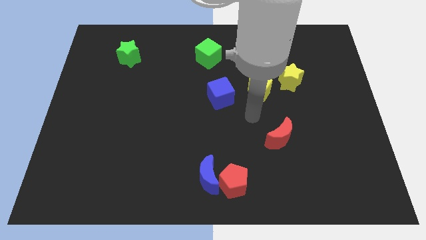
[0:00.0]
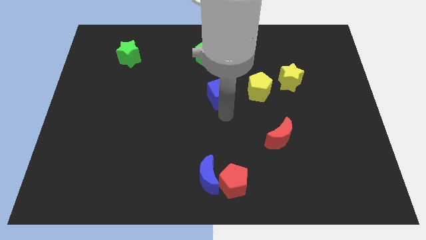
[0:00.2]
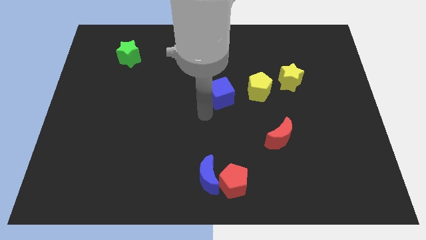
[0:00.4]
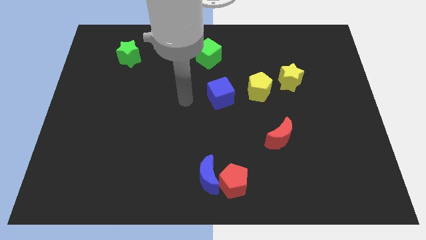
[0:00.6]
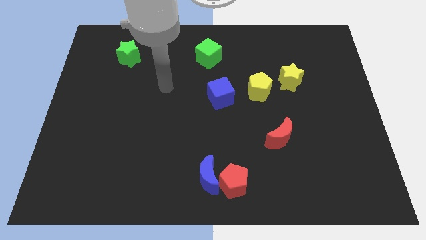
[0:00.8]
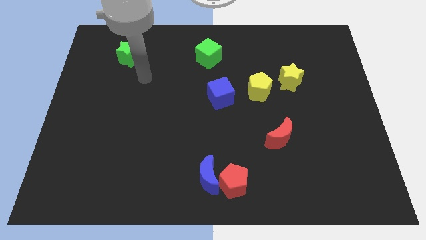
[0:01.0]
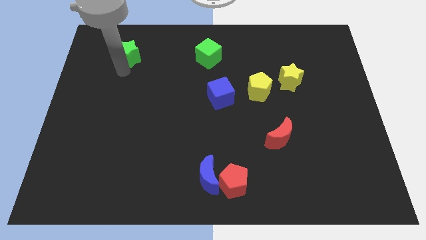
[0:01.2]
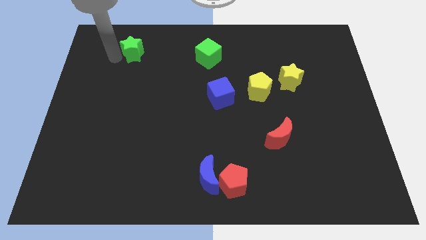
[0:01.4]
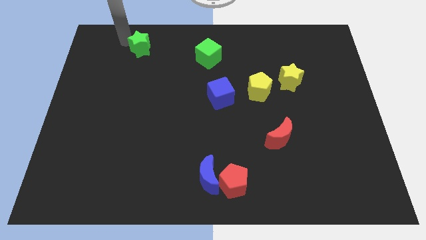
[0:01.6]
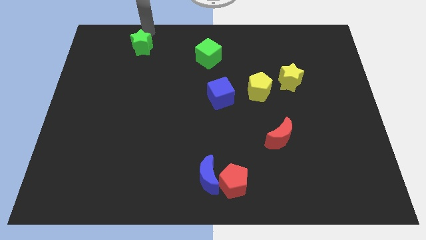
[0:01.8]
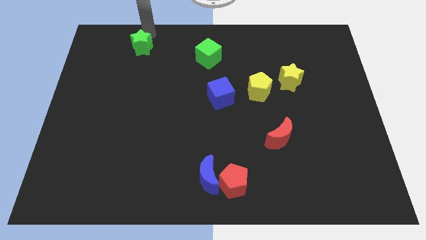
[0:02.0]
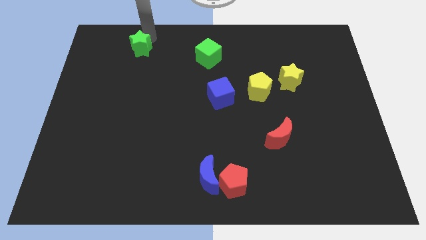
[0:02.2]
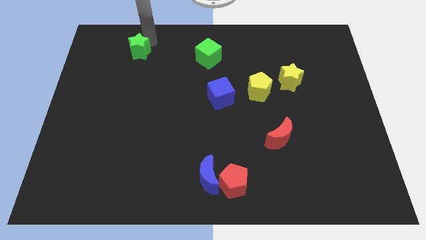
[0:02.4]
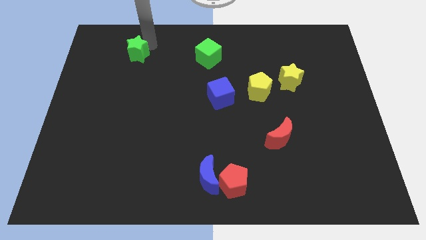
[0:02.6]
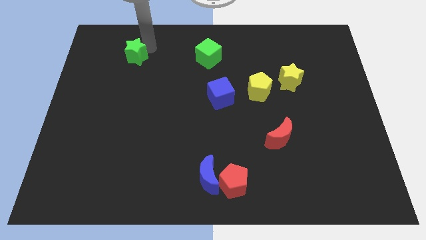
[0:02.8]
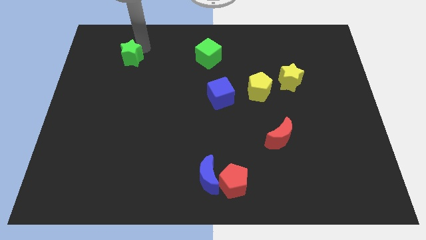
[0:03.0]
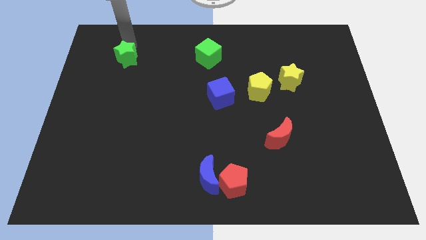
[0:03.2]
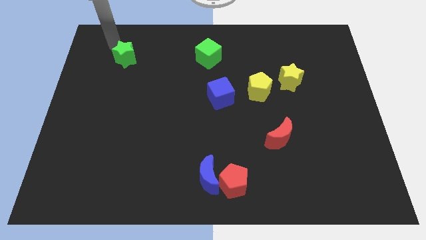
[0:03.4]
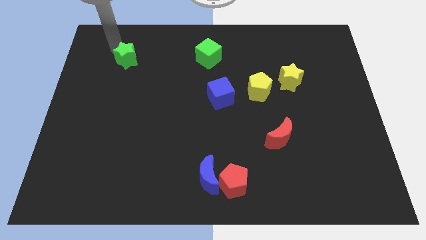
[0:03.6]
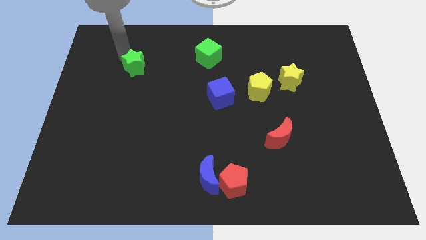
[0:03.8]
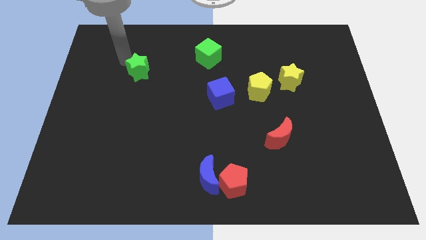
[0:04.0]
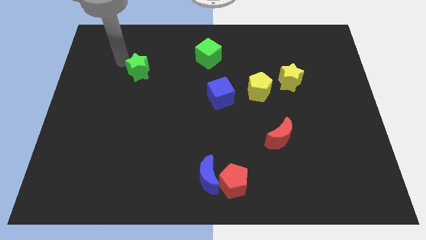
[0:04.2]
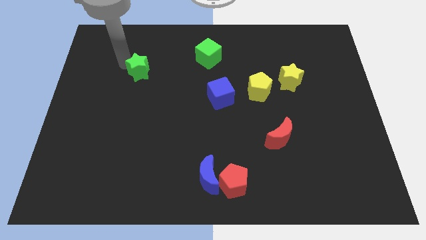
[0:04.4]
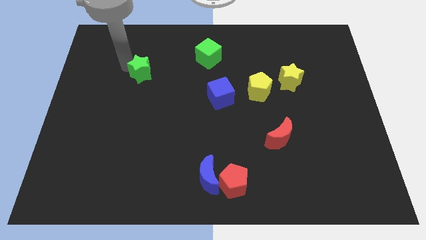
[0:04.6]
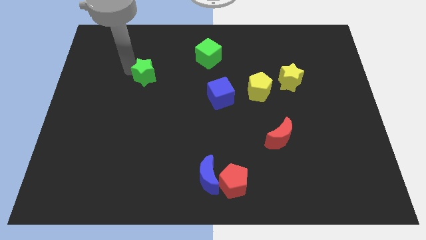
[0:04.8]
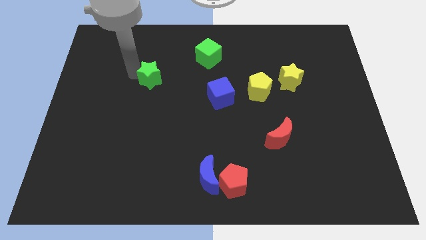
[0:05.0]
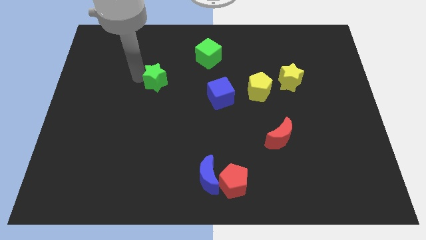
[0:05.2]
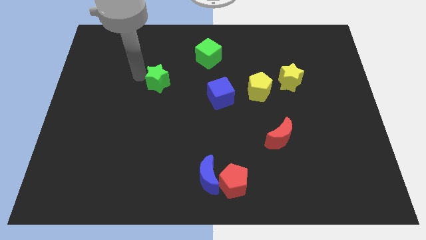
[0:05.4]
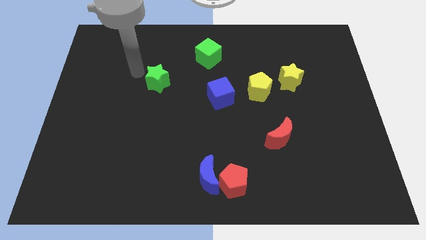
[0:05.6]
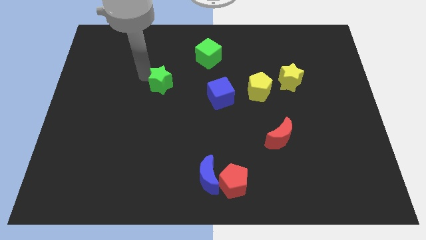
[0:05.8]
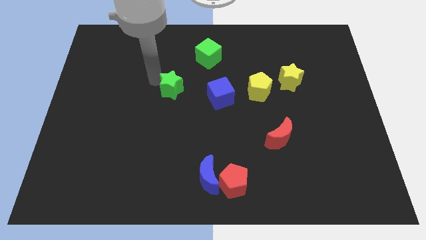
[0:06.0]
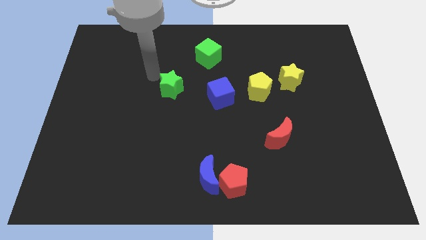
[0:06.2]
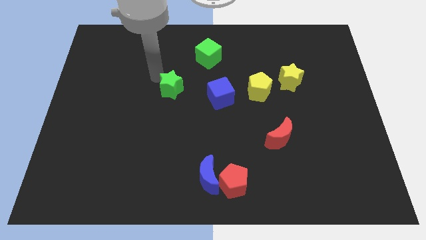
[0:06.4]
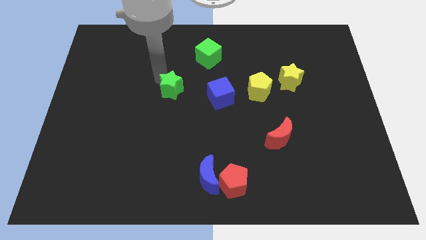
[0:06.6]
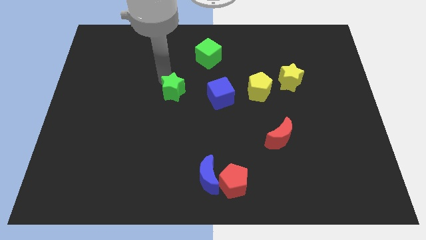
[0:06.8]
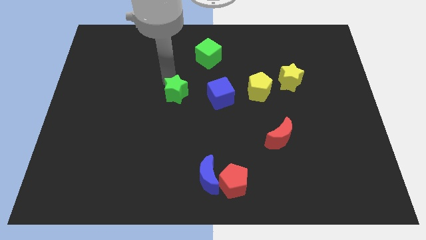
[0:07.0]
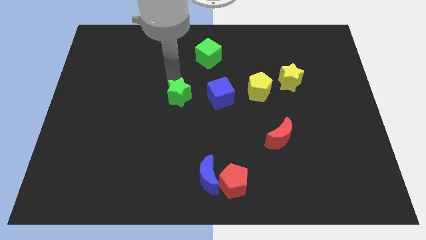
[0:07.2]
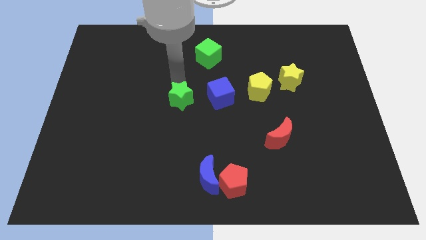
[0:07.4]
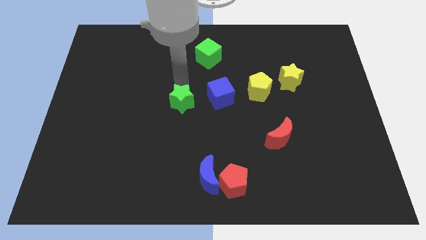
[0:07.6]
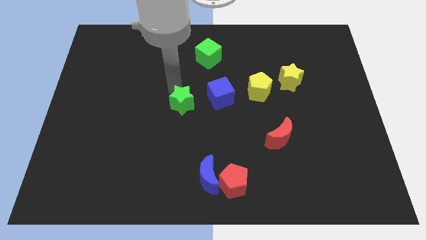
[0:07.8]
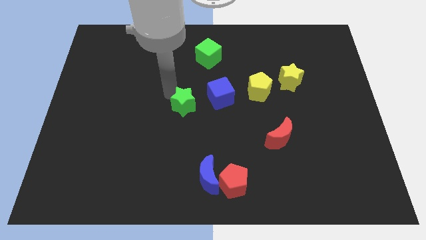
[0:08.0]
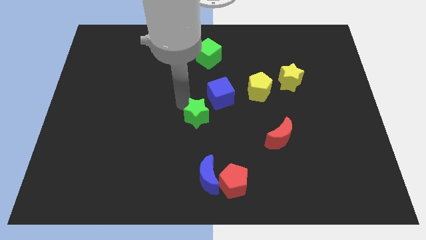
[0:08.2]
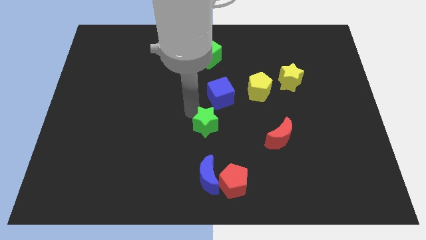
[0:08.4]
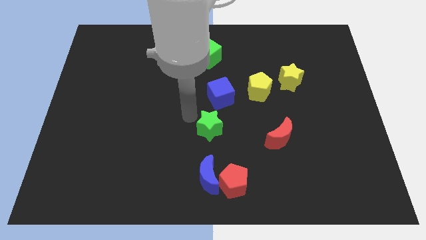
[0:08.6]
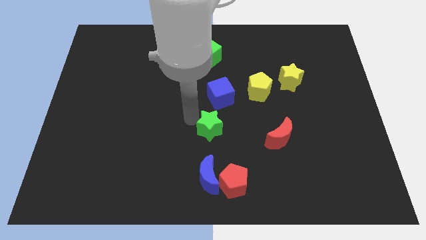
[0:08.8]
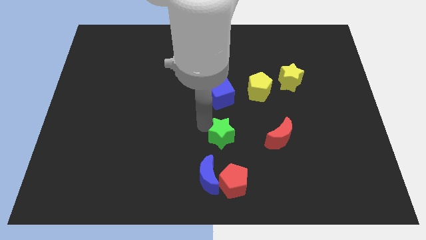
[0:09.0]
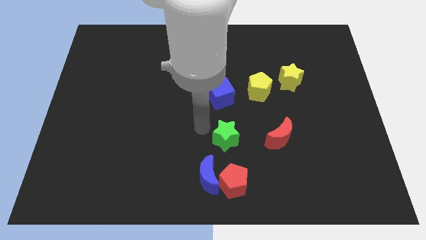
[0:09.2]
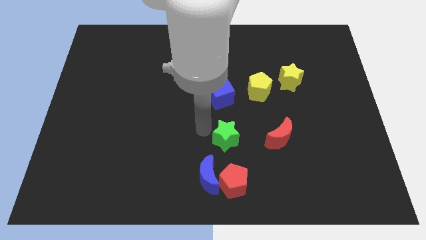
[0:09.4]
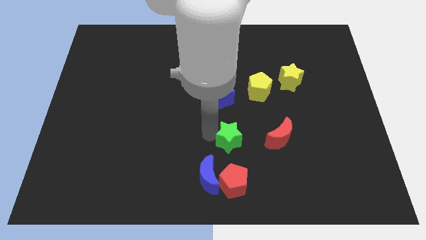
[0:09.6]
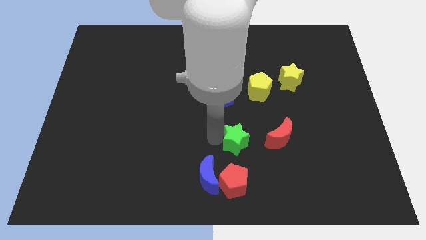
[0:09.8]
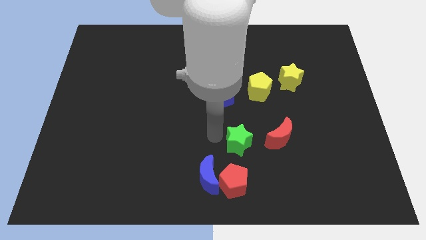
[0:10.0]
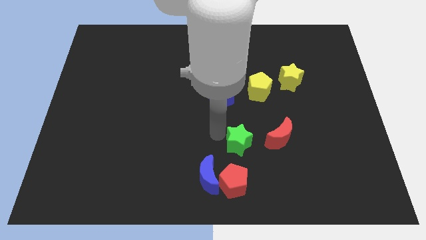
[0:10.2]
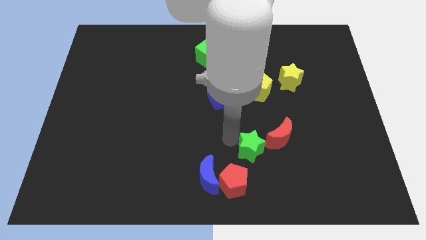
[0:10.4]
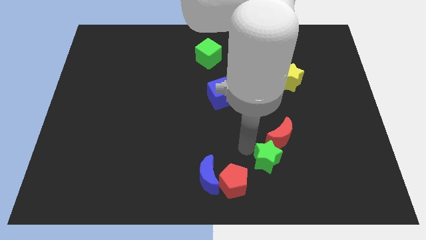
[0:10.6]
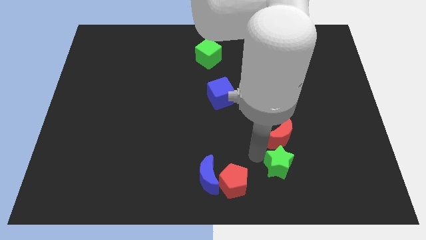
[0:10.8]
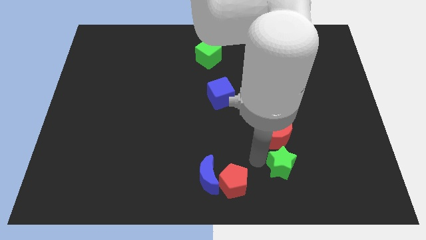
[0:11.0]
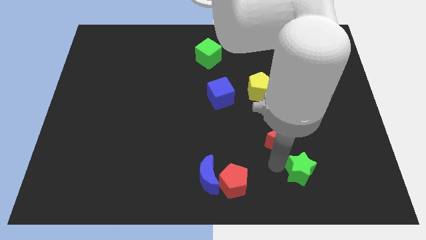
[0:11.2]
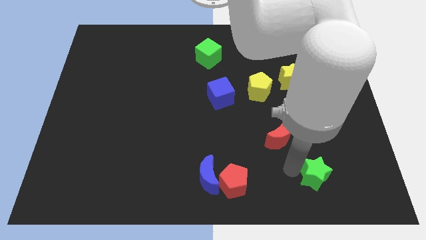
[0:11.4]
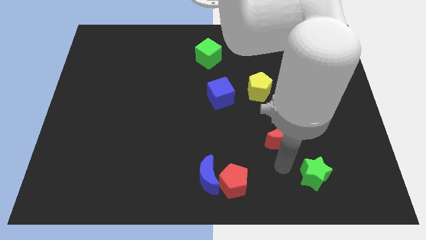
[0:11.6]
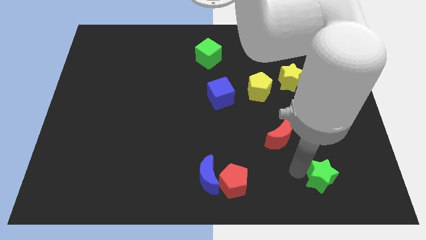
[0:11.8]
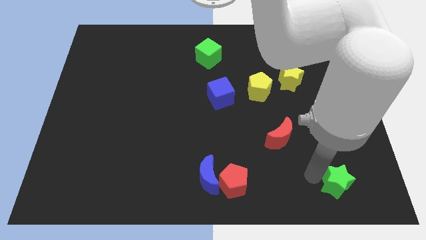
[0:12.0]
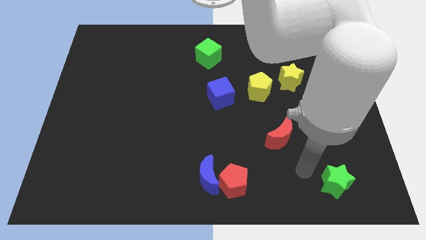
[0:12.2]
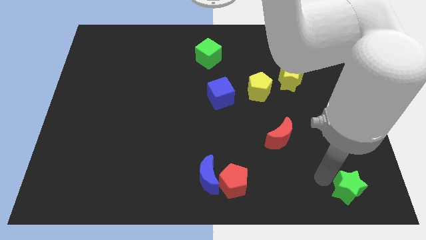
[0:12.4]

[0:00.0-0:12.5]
push the green star to the bottom right of the board
